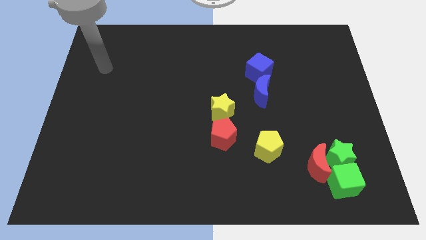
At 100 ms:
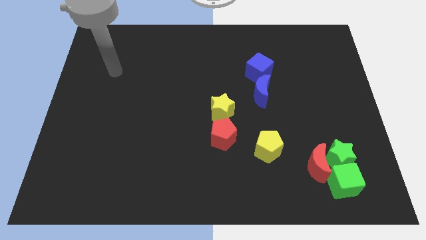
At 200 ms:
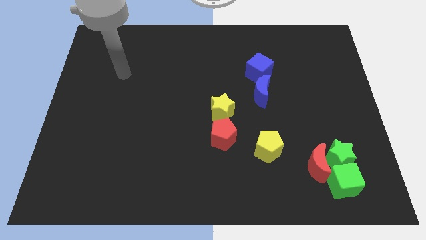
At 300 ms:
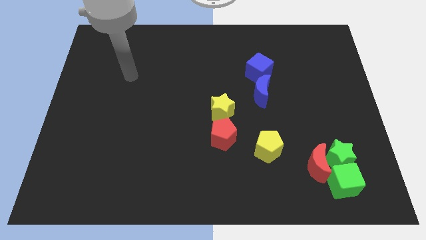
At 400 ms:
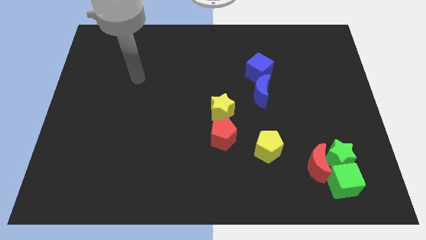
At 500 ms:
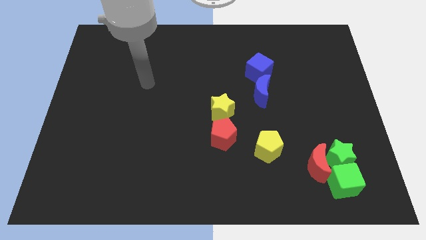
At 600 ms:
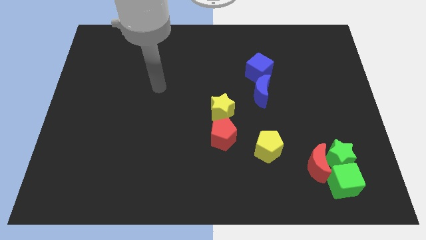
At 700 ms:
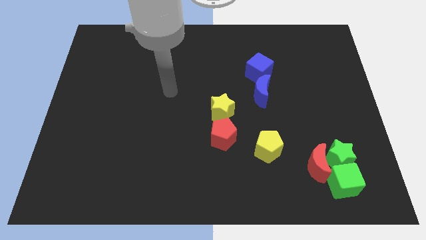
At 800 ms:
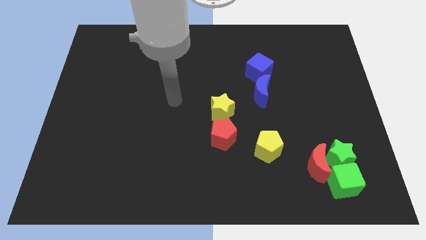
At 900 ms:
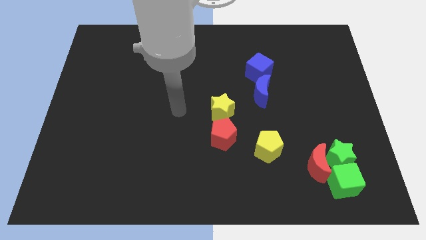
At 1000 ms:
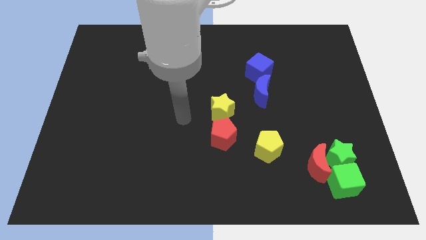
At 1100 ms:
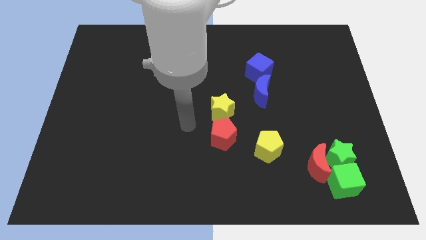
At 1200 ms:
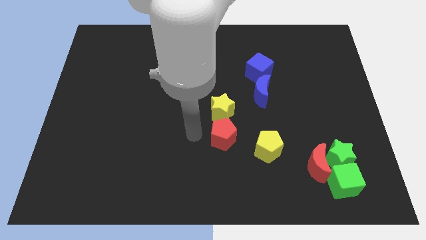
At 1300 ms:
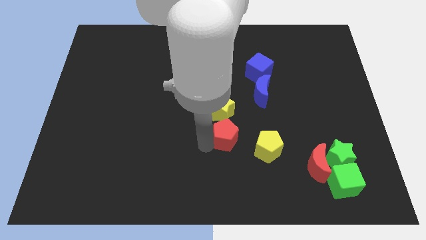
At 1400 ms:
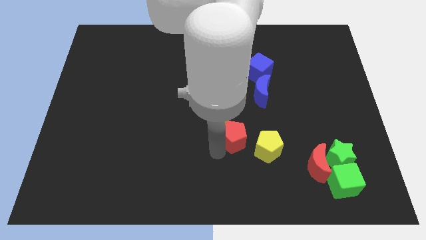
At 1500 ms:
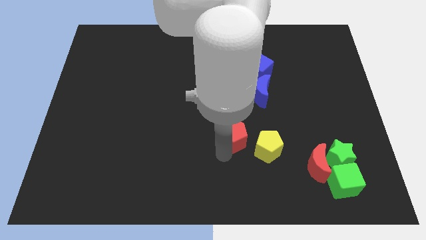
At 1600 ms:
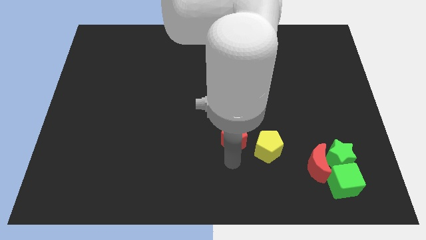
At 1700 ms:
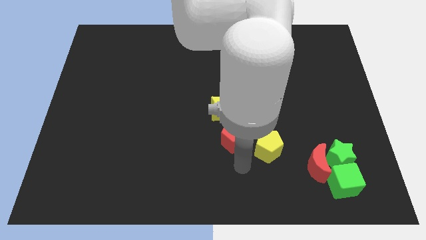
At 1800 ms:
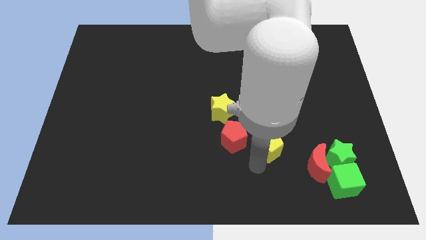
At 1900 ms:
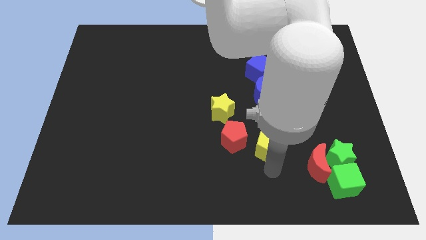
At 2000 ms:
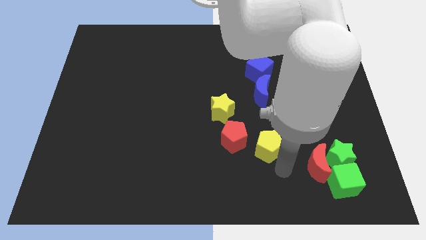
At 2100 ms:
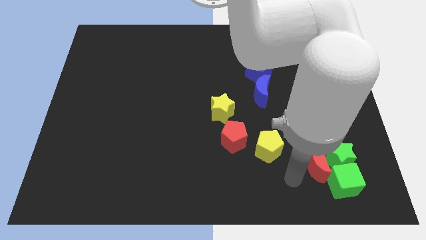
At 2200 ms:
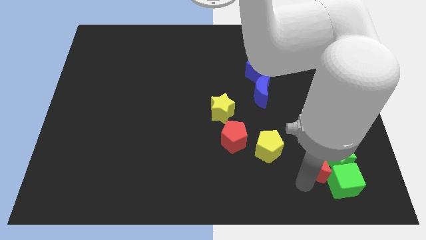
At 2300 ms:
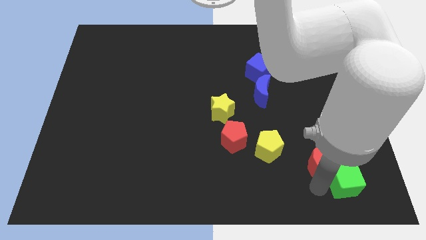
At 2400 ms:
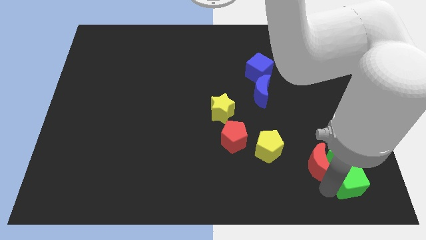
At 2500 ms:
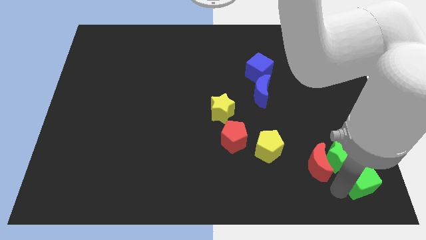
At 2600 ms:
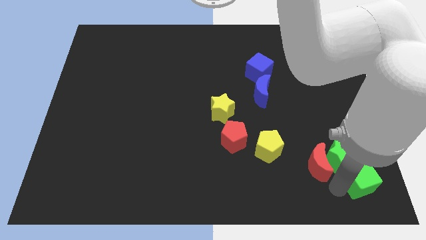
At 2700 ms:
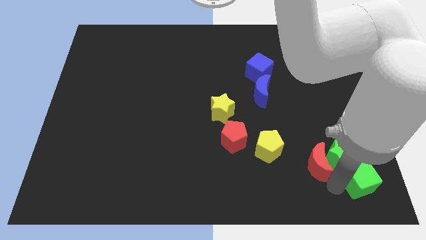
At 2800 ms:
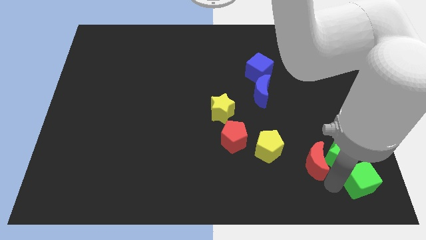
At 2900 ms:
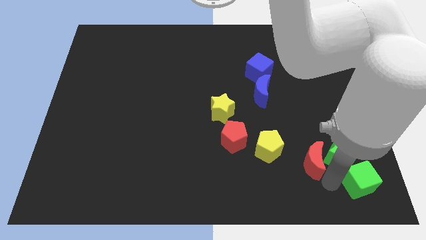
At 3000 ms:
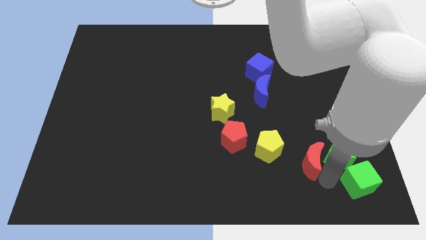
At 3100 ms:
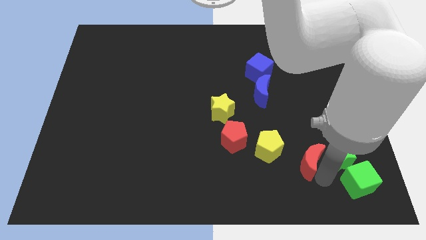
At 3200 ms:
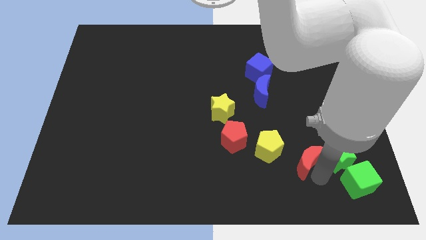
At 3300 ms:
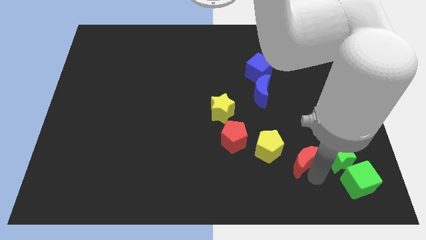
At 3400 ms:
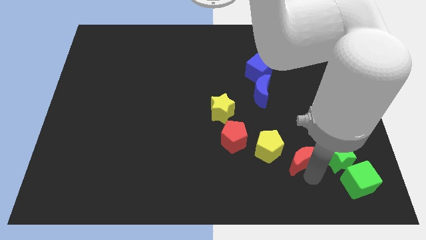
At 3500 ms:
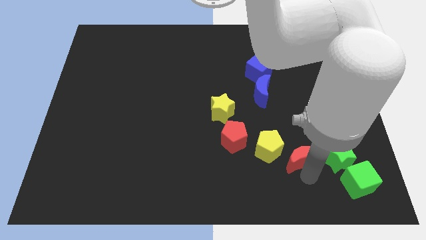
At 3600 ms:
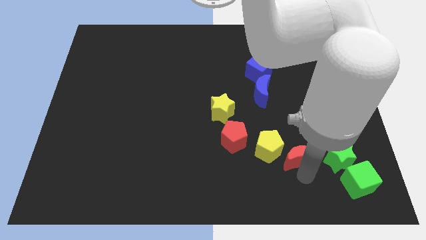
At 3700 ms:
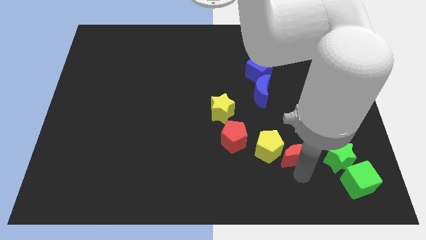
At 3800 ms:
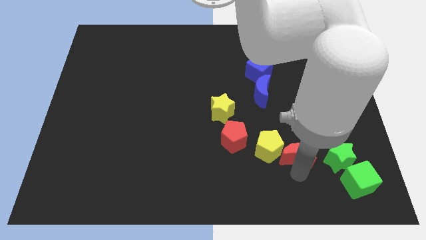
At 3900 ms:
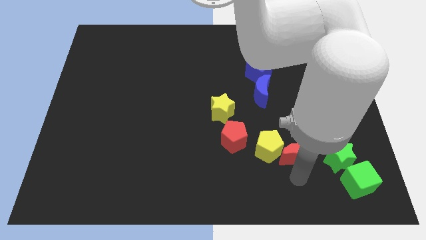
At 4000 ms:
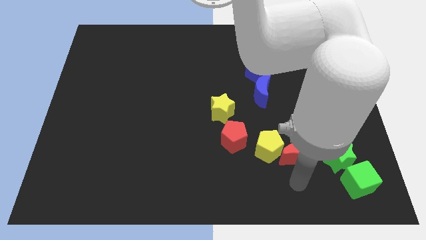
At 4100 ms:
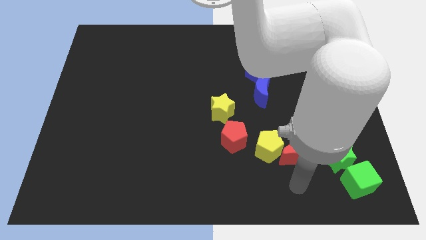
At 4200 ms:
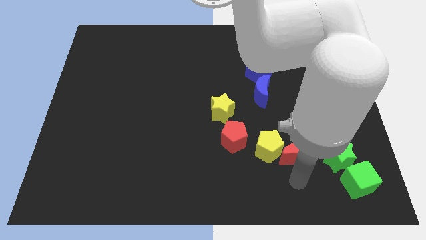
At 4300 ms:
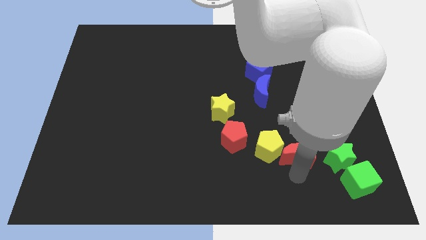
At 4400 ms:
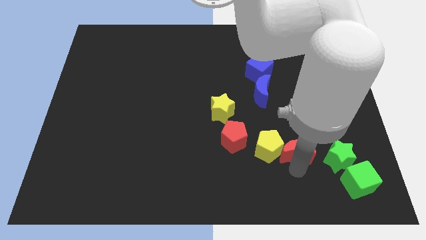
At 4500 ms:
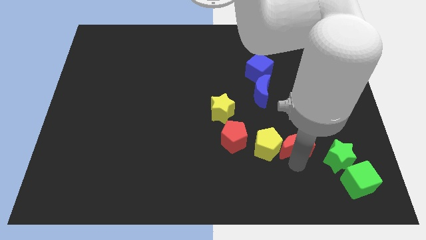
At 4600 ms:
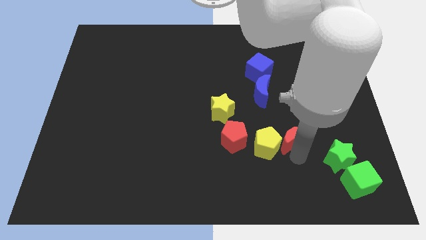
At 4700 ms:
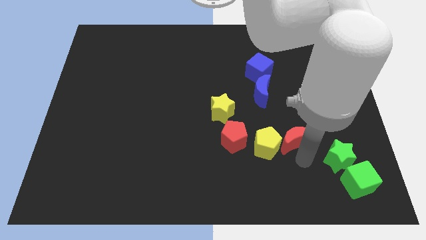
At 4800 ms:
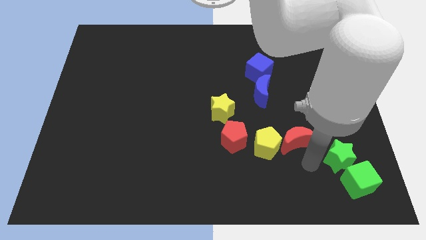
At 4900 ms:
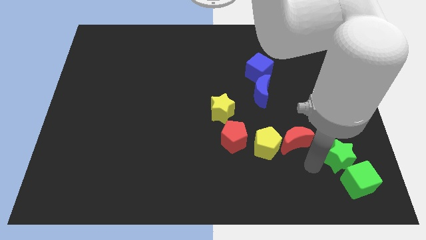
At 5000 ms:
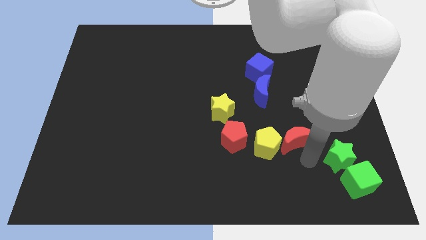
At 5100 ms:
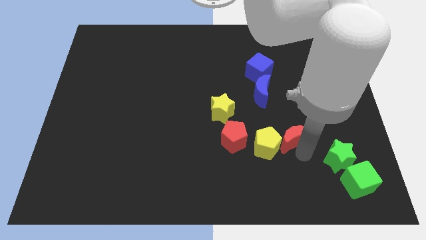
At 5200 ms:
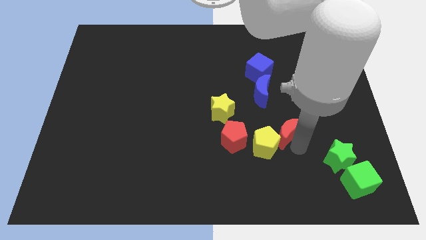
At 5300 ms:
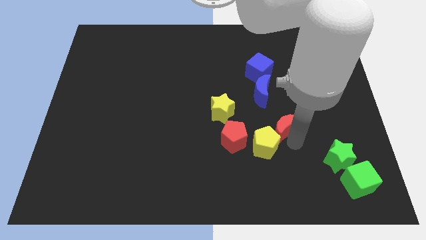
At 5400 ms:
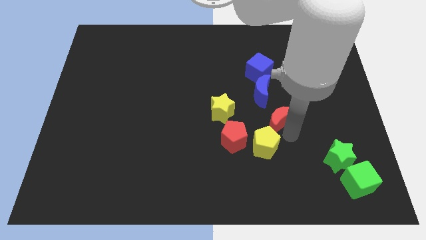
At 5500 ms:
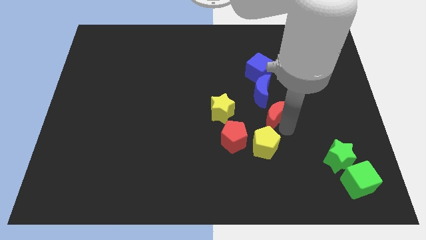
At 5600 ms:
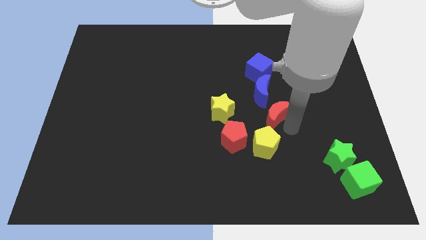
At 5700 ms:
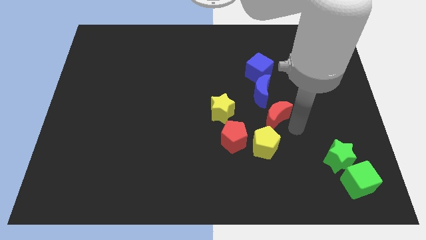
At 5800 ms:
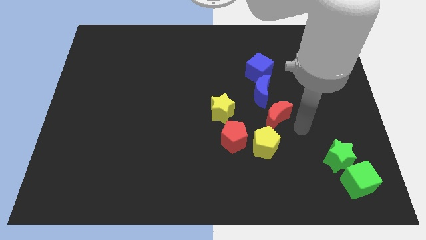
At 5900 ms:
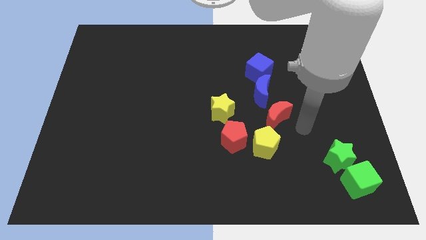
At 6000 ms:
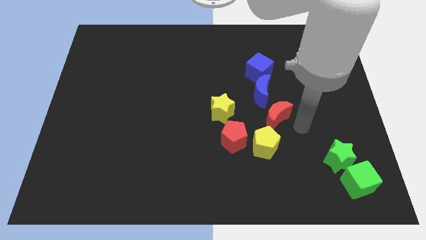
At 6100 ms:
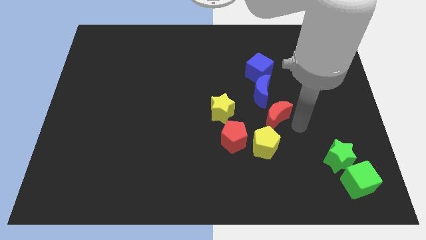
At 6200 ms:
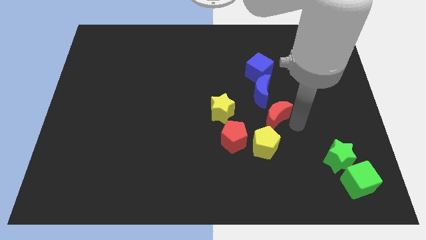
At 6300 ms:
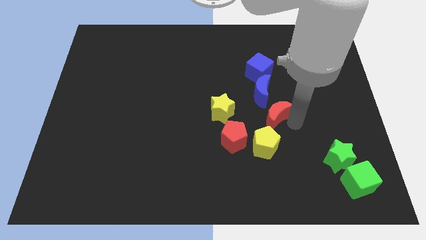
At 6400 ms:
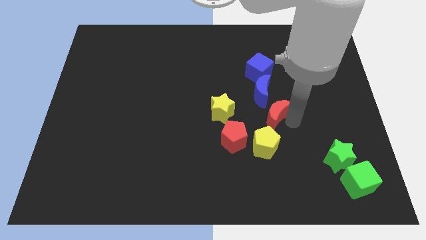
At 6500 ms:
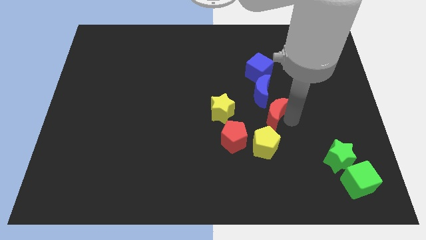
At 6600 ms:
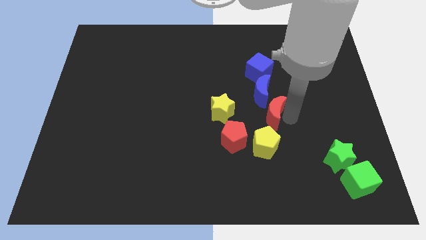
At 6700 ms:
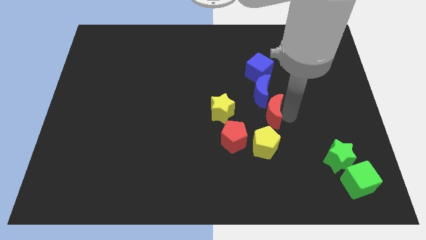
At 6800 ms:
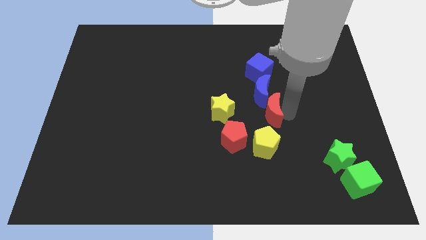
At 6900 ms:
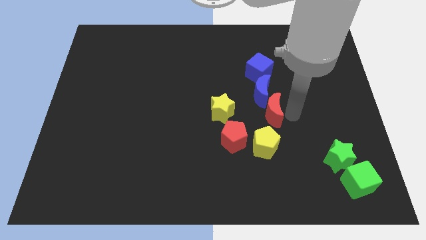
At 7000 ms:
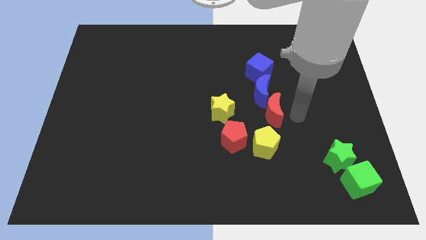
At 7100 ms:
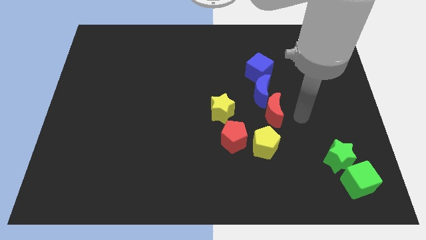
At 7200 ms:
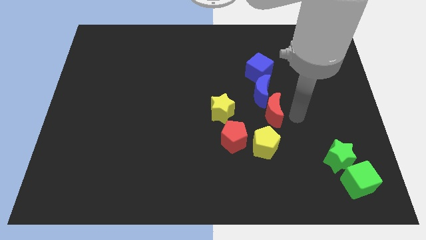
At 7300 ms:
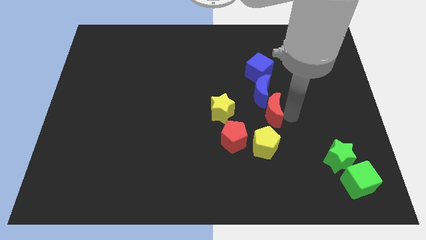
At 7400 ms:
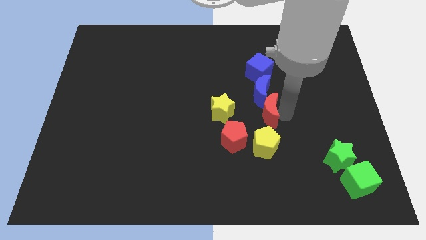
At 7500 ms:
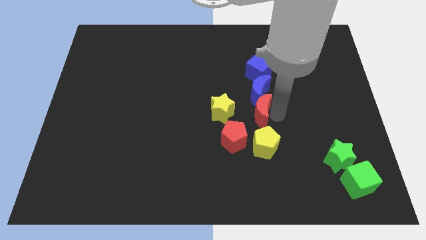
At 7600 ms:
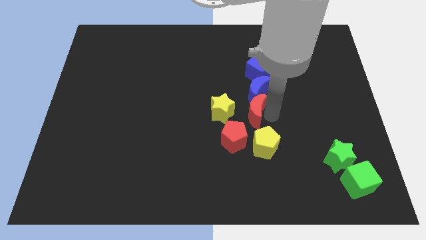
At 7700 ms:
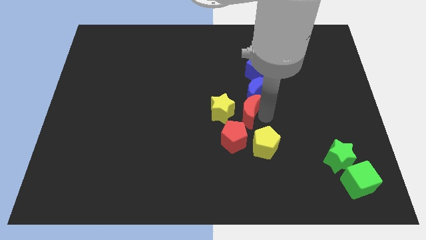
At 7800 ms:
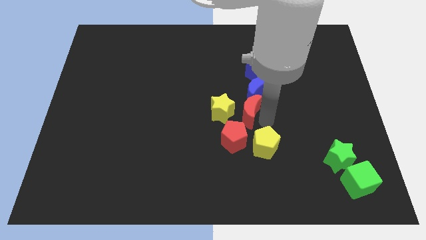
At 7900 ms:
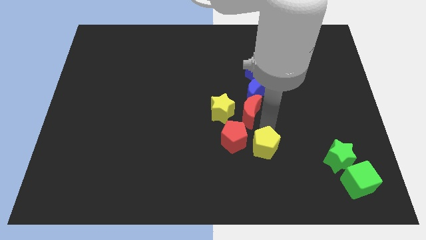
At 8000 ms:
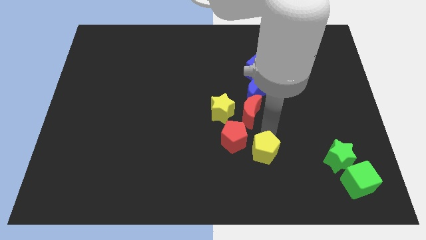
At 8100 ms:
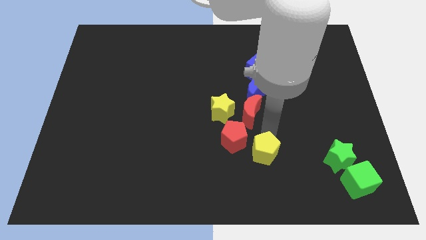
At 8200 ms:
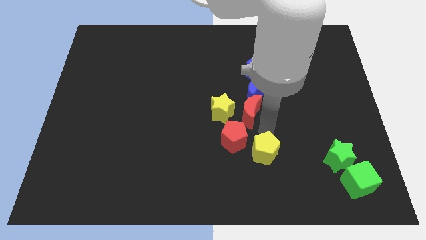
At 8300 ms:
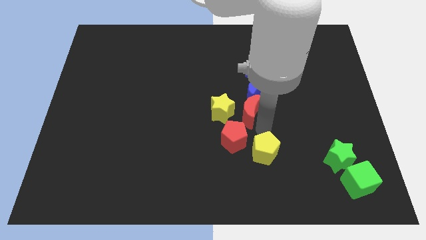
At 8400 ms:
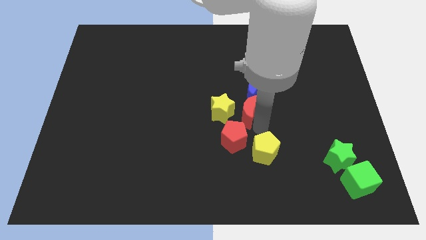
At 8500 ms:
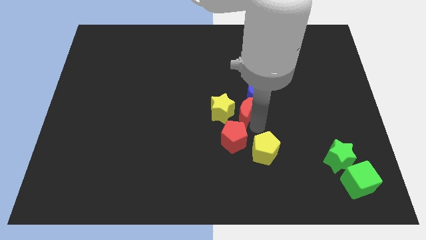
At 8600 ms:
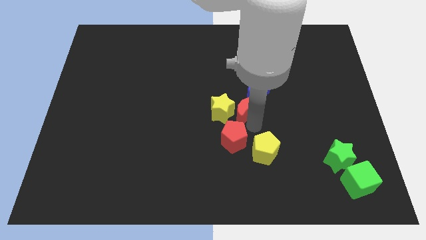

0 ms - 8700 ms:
slide the red moon upwards and to the left diagonally
